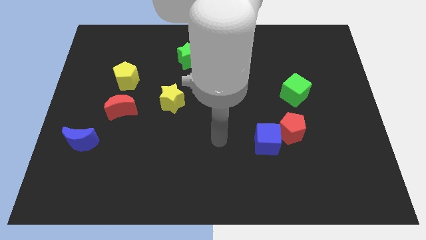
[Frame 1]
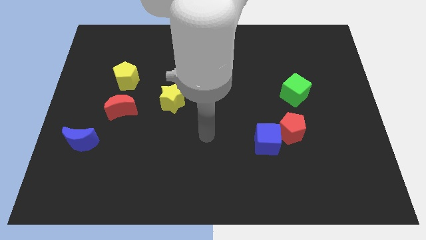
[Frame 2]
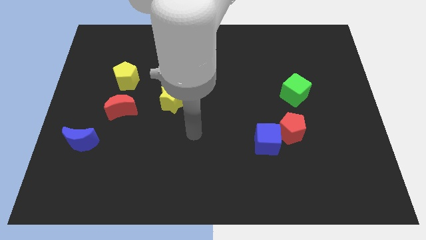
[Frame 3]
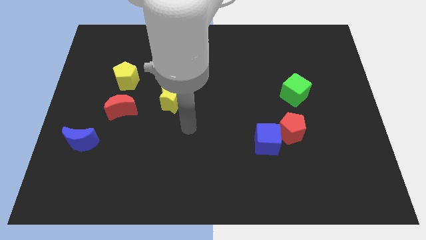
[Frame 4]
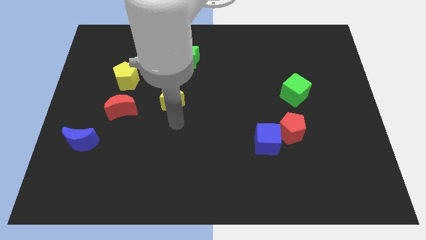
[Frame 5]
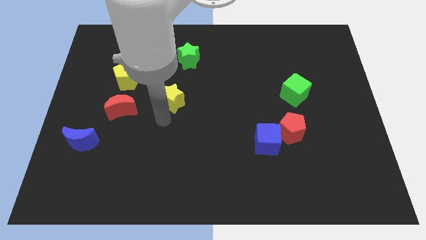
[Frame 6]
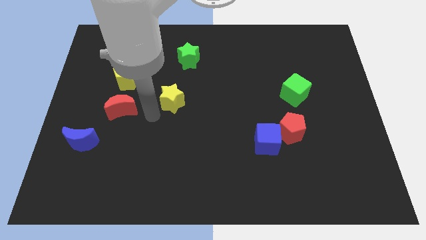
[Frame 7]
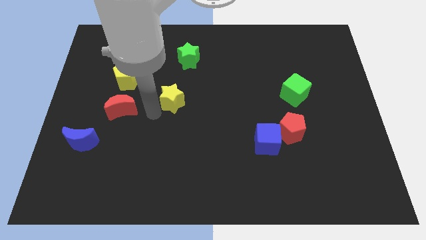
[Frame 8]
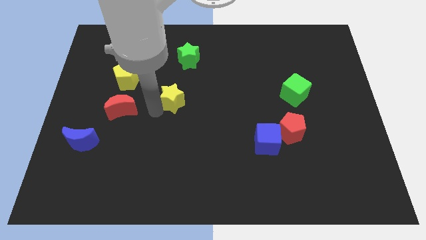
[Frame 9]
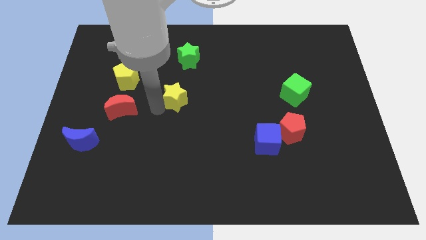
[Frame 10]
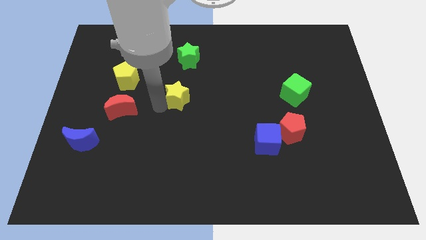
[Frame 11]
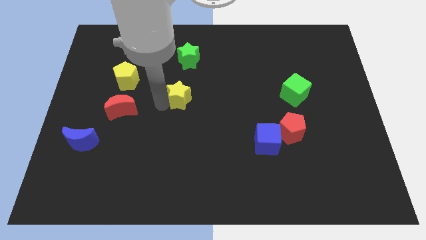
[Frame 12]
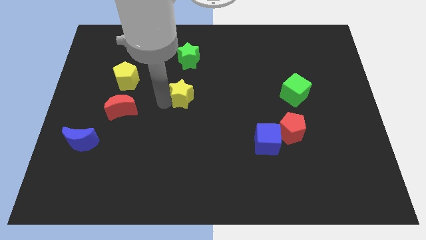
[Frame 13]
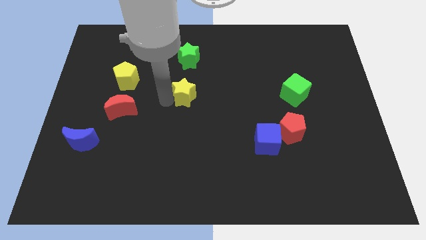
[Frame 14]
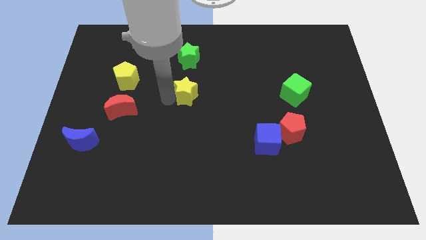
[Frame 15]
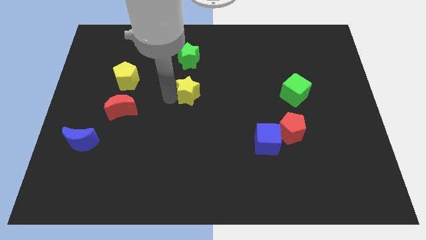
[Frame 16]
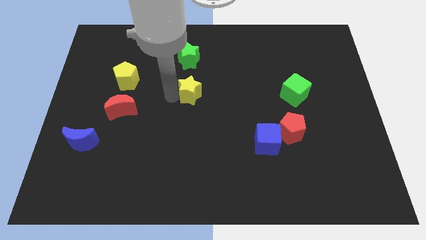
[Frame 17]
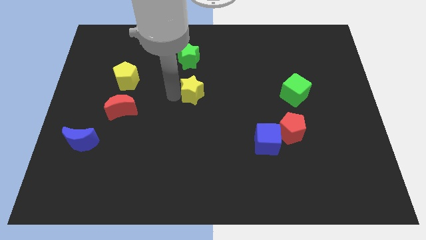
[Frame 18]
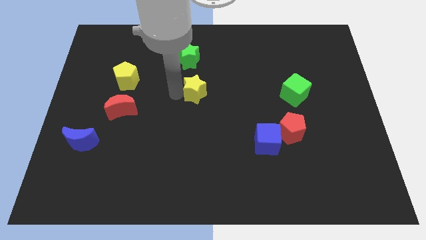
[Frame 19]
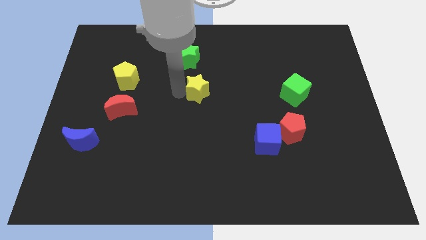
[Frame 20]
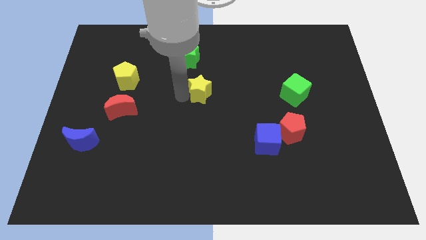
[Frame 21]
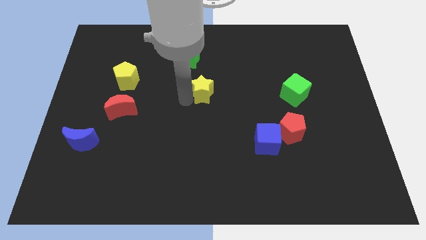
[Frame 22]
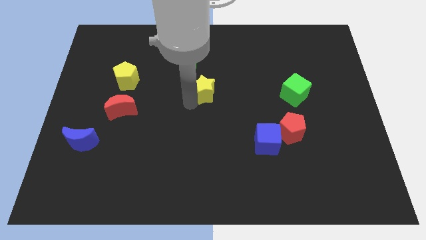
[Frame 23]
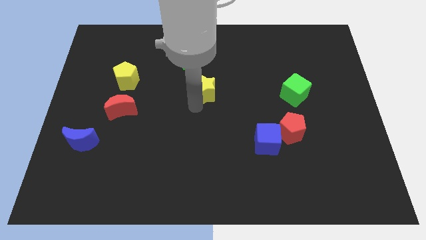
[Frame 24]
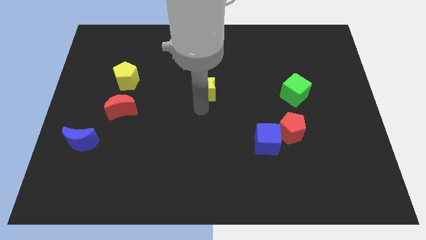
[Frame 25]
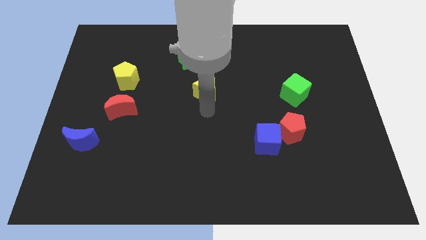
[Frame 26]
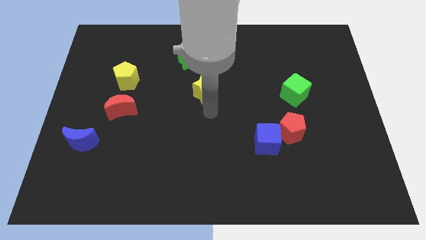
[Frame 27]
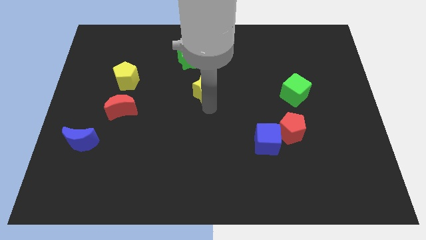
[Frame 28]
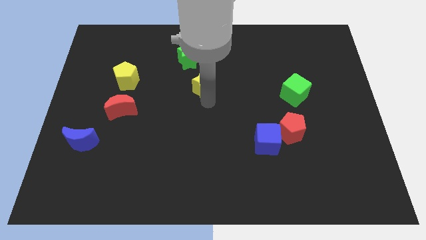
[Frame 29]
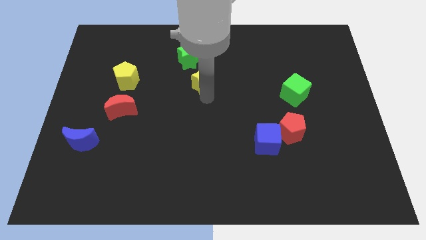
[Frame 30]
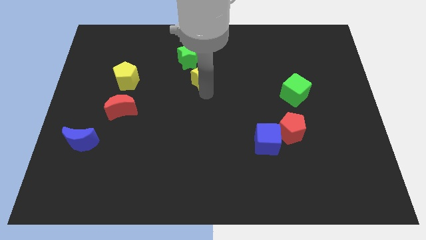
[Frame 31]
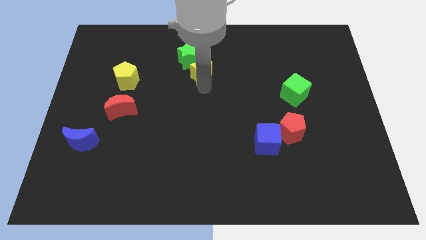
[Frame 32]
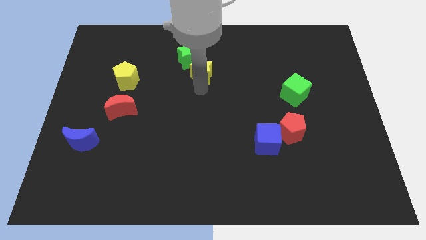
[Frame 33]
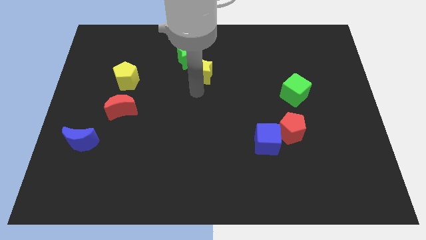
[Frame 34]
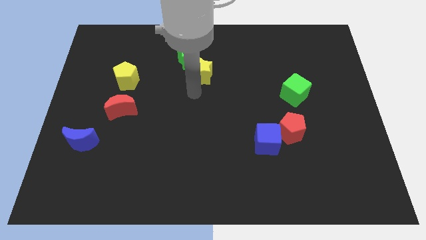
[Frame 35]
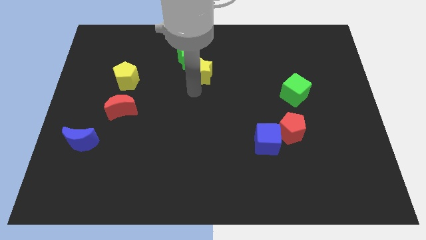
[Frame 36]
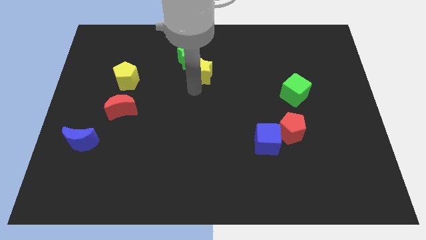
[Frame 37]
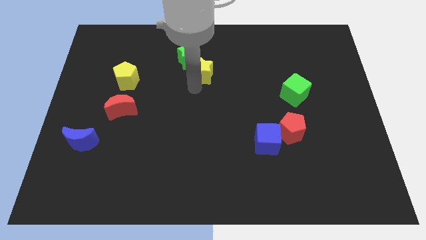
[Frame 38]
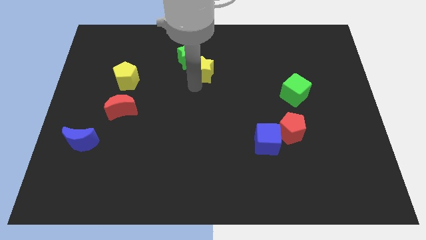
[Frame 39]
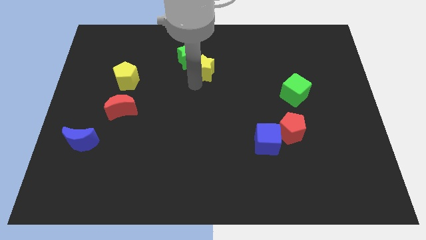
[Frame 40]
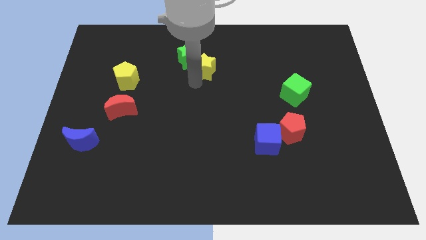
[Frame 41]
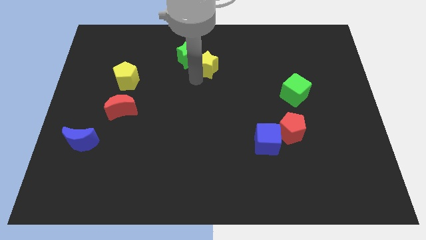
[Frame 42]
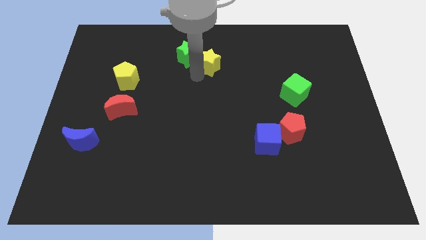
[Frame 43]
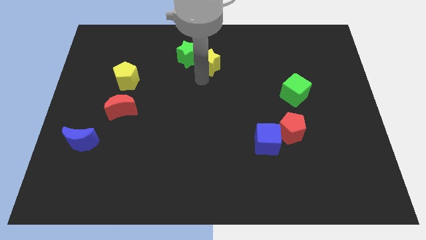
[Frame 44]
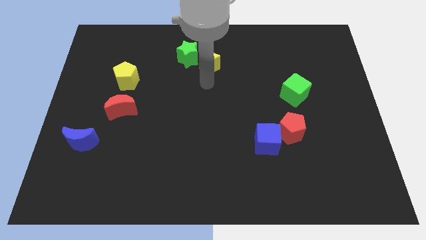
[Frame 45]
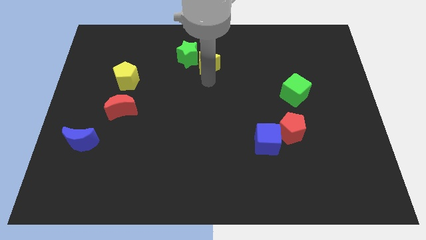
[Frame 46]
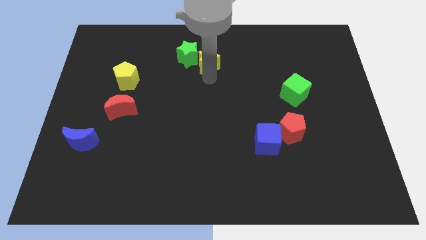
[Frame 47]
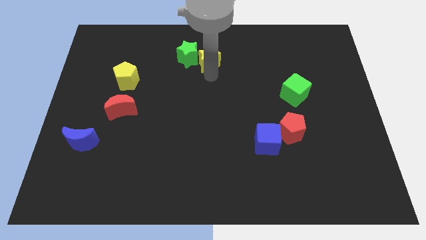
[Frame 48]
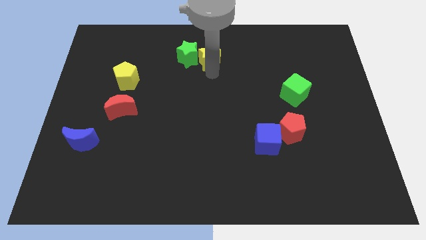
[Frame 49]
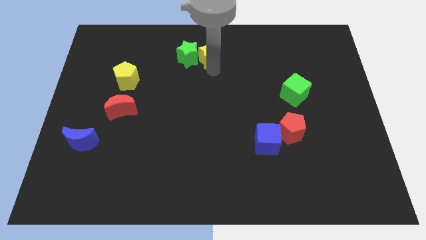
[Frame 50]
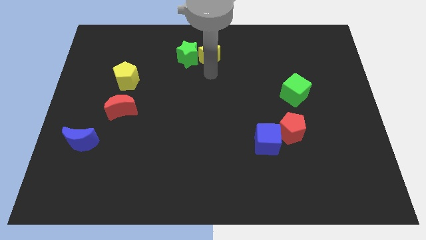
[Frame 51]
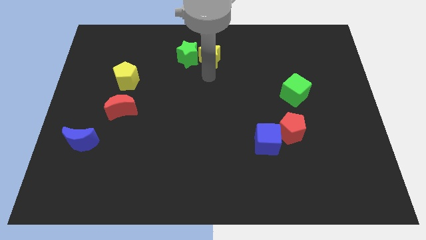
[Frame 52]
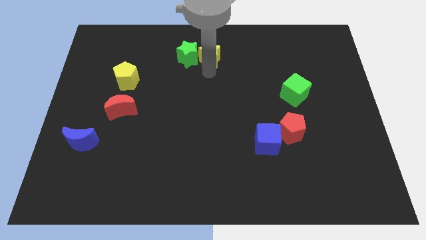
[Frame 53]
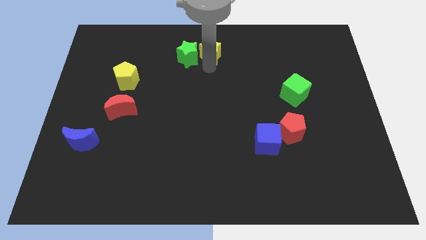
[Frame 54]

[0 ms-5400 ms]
push the yellow star to the top
